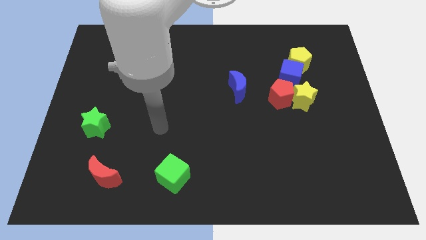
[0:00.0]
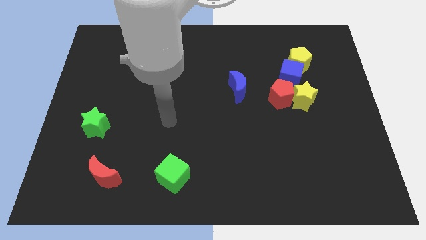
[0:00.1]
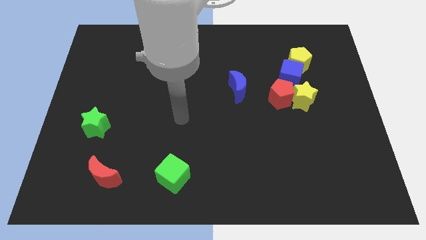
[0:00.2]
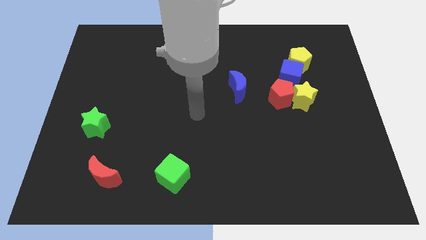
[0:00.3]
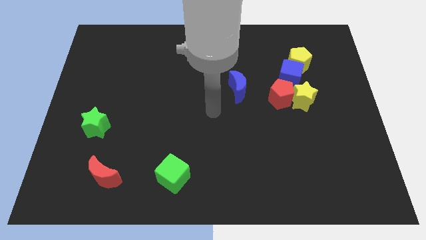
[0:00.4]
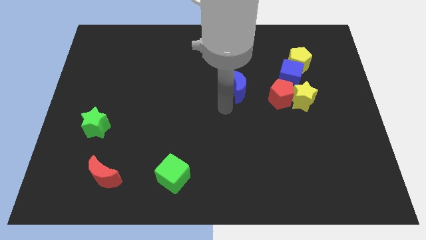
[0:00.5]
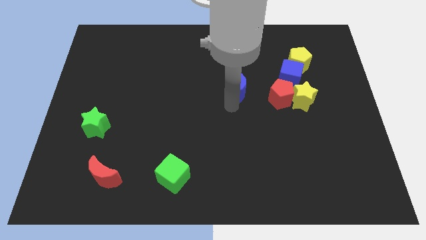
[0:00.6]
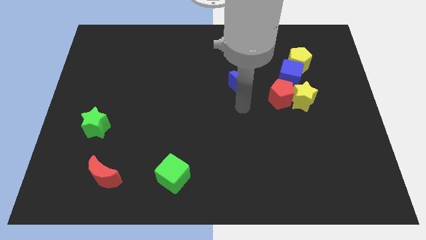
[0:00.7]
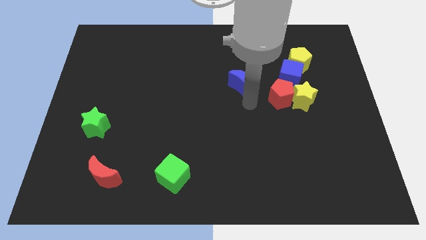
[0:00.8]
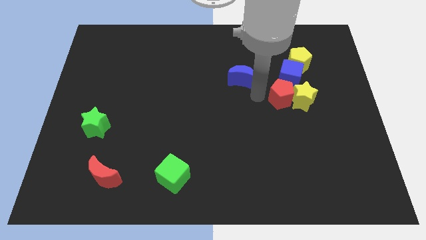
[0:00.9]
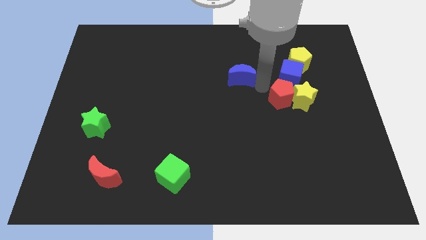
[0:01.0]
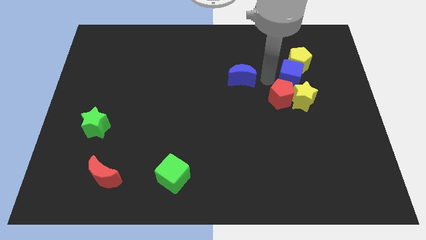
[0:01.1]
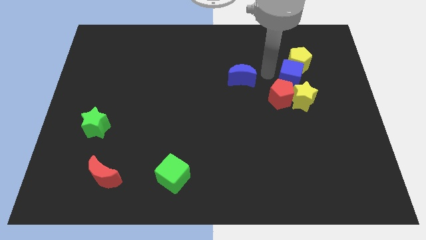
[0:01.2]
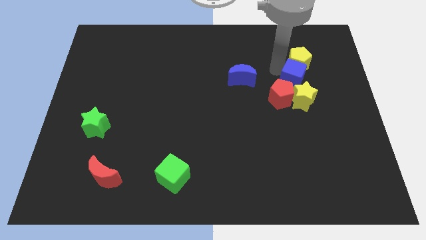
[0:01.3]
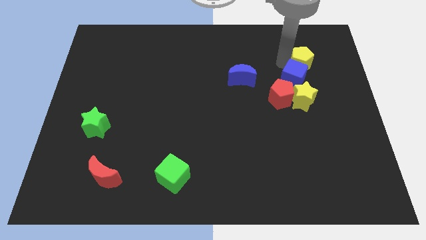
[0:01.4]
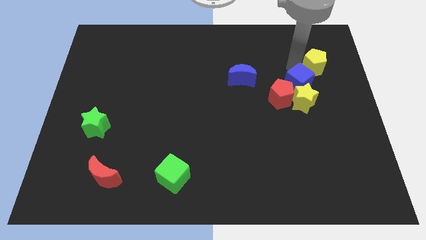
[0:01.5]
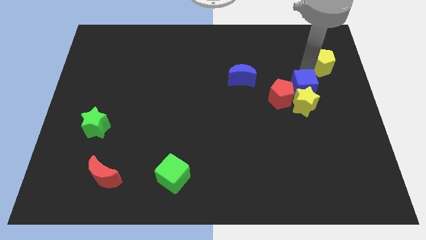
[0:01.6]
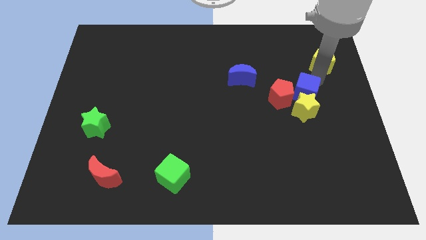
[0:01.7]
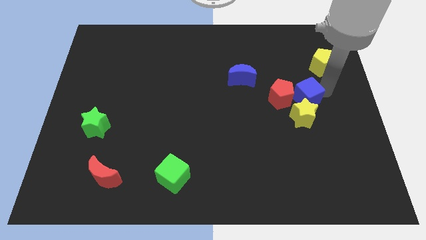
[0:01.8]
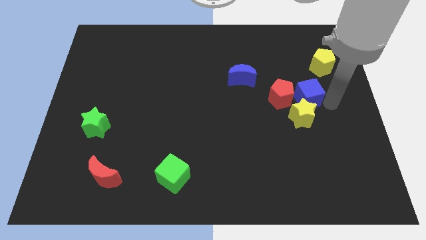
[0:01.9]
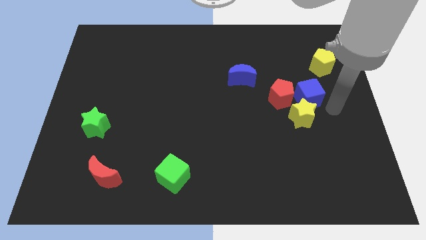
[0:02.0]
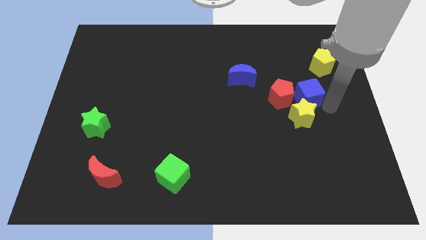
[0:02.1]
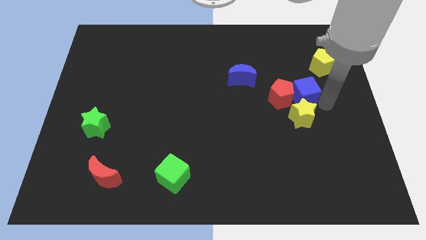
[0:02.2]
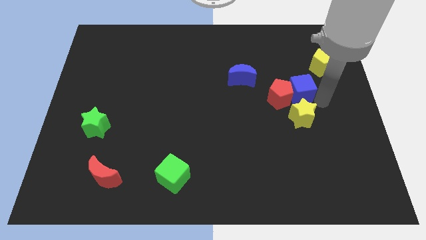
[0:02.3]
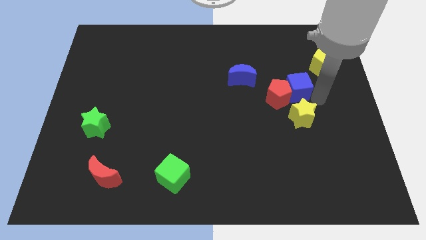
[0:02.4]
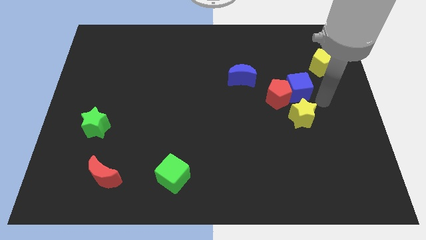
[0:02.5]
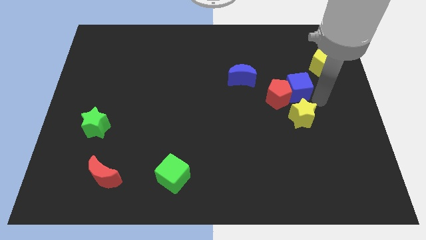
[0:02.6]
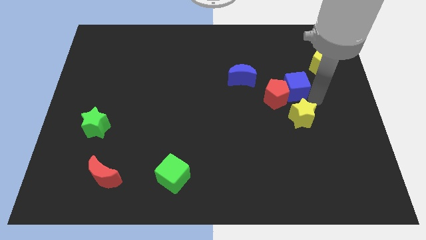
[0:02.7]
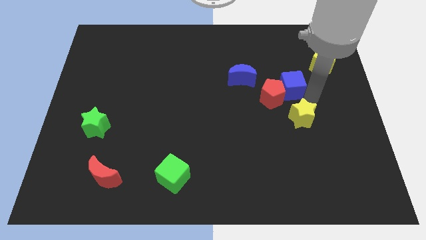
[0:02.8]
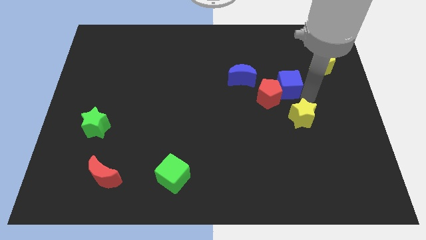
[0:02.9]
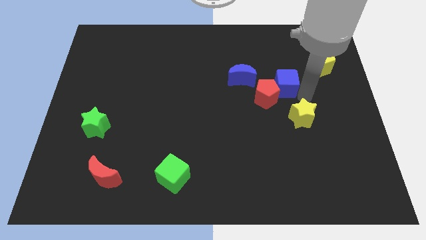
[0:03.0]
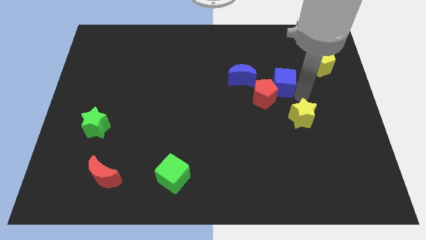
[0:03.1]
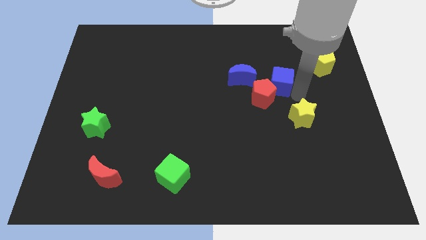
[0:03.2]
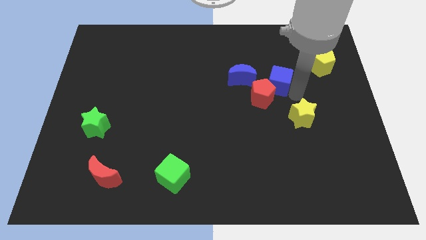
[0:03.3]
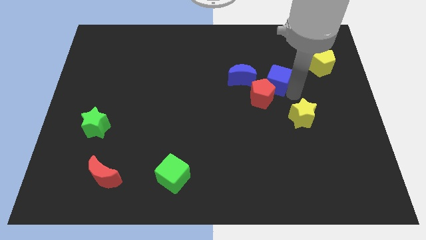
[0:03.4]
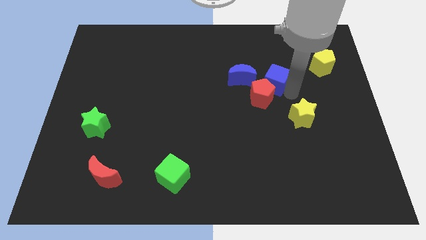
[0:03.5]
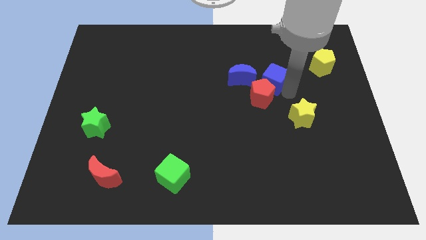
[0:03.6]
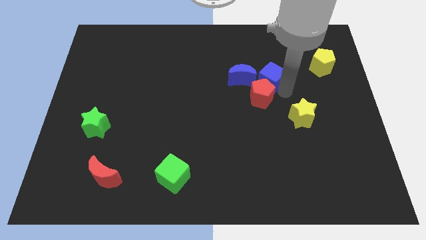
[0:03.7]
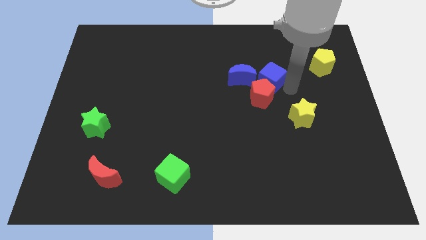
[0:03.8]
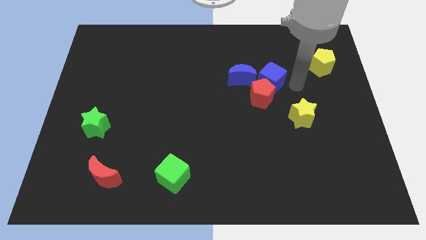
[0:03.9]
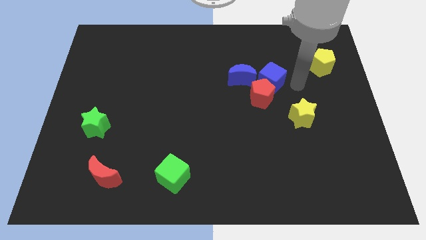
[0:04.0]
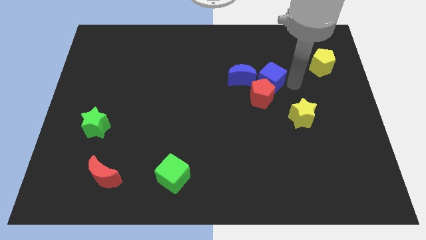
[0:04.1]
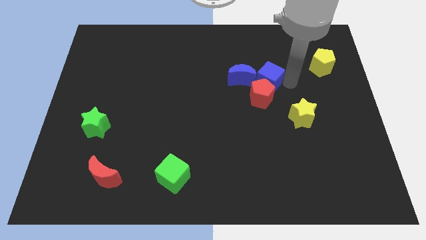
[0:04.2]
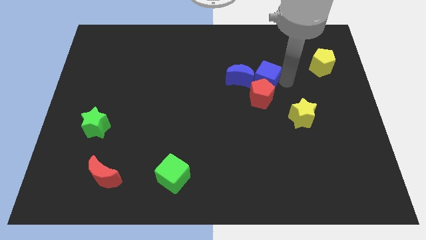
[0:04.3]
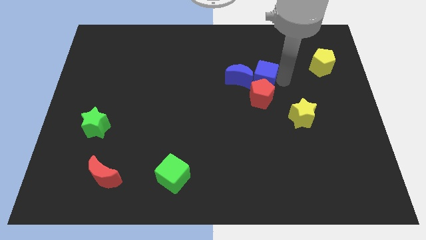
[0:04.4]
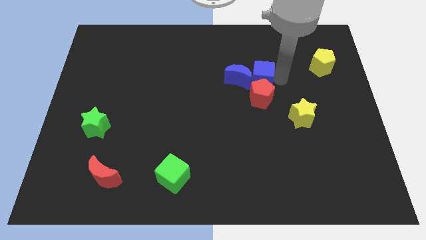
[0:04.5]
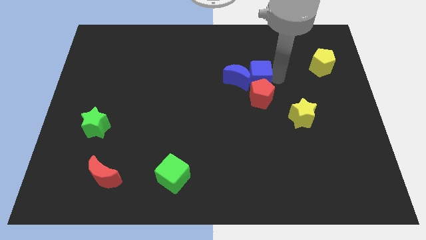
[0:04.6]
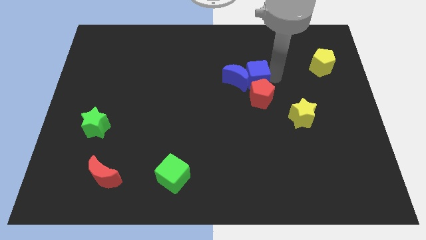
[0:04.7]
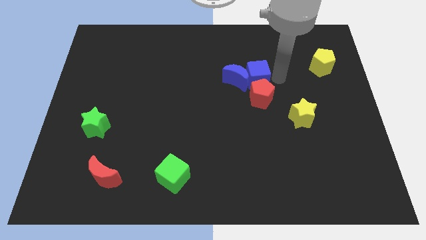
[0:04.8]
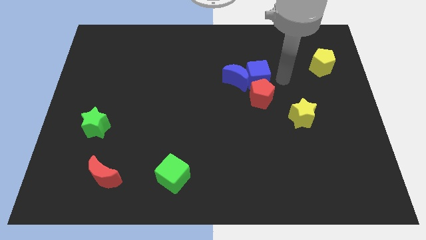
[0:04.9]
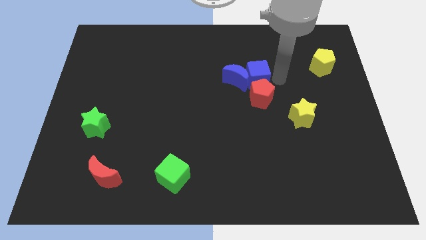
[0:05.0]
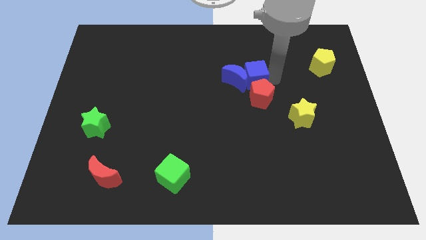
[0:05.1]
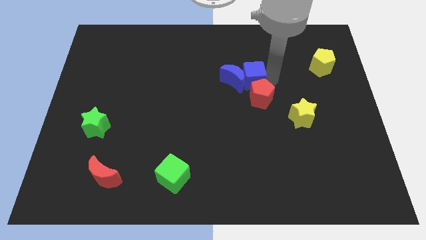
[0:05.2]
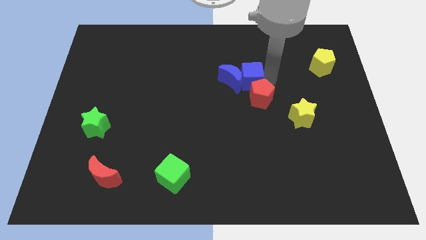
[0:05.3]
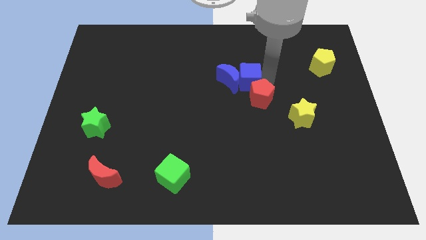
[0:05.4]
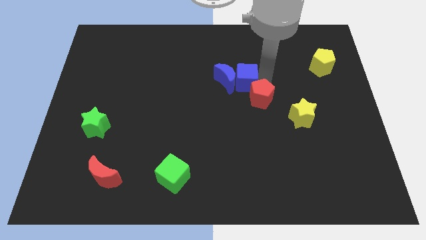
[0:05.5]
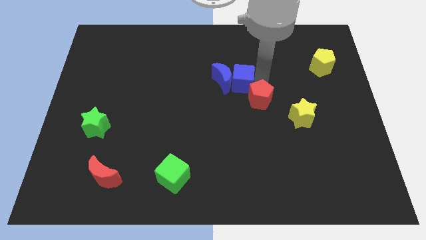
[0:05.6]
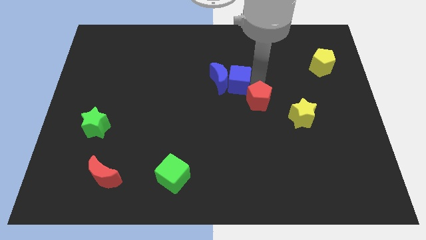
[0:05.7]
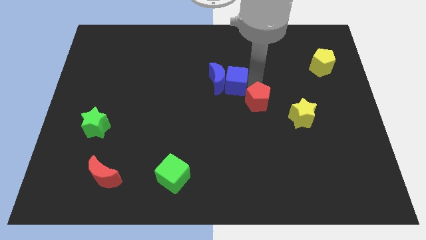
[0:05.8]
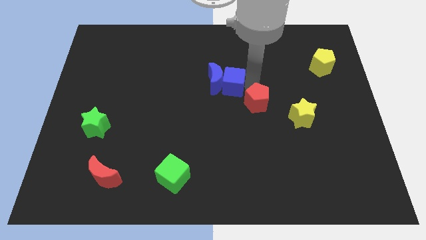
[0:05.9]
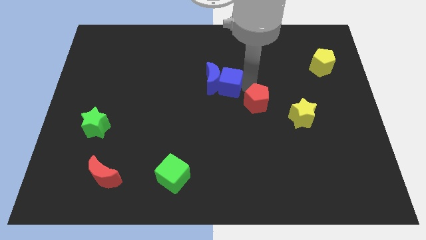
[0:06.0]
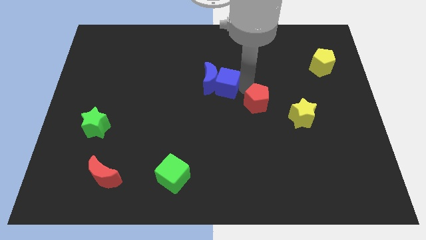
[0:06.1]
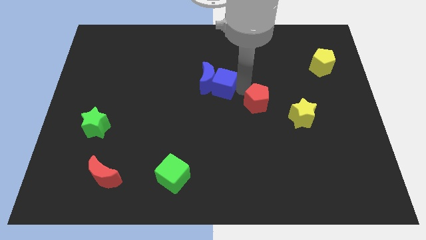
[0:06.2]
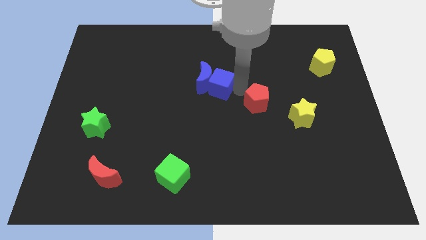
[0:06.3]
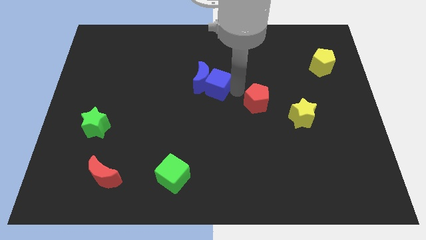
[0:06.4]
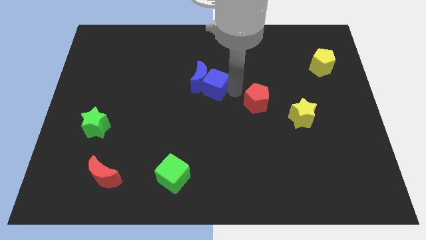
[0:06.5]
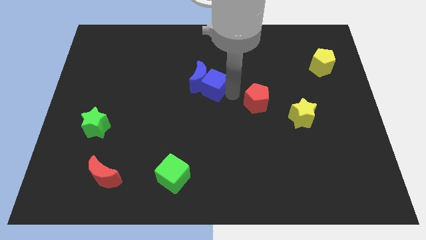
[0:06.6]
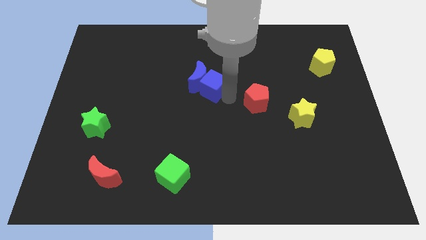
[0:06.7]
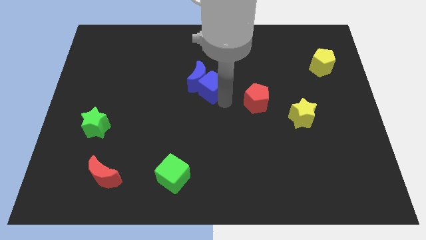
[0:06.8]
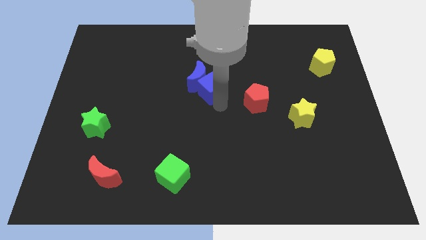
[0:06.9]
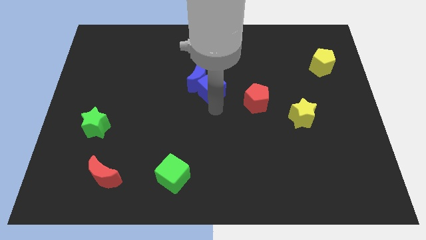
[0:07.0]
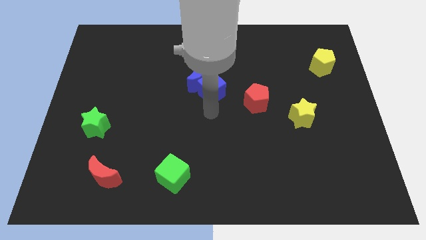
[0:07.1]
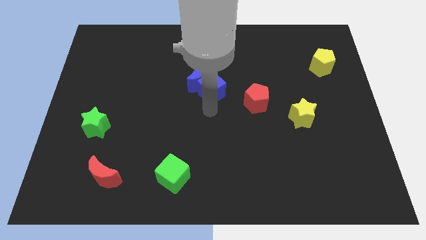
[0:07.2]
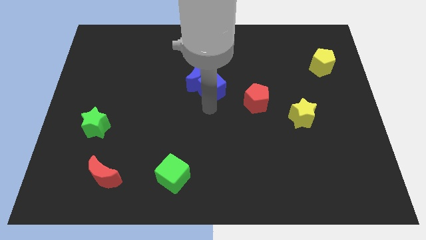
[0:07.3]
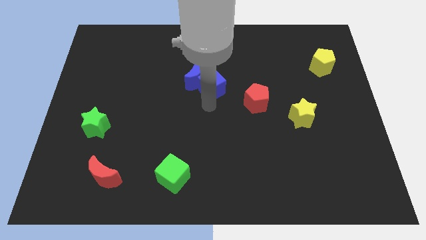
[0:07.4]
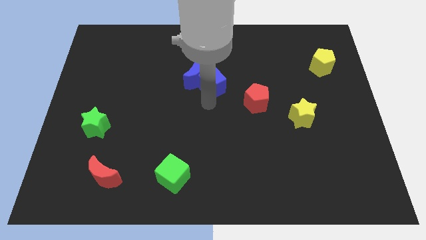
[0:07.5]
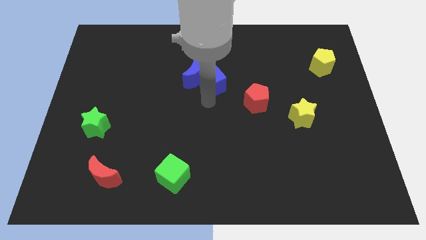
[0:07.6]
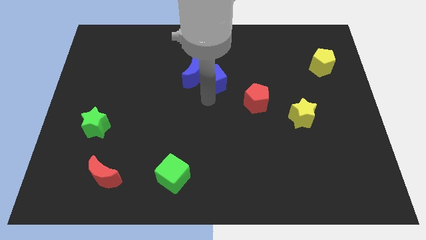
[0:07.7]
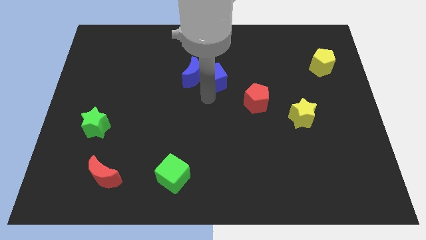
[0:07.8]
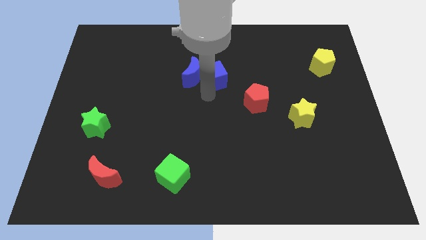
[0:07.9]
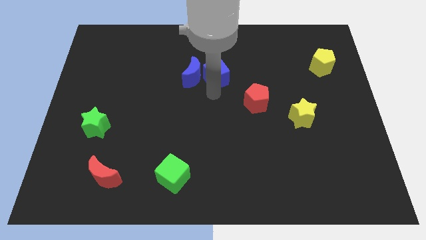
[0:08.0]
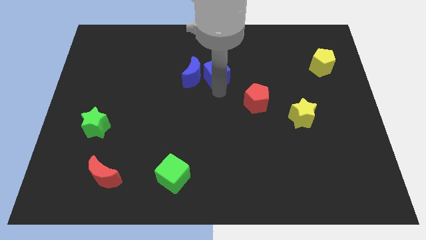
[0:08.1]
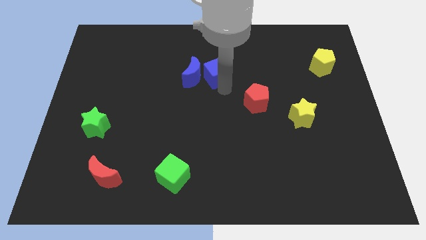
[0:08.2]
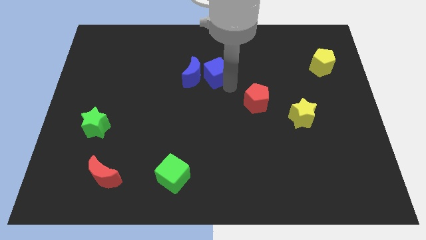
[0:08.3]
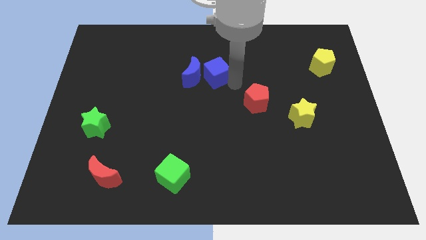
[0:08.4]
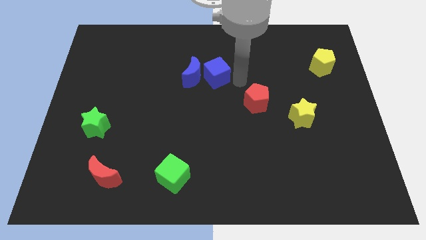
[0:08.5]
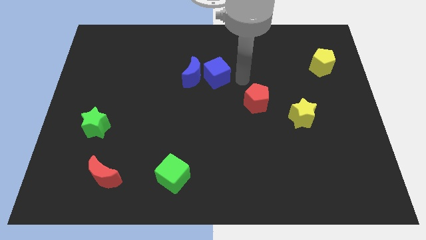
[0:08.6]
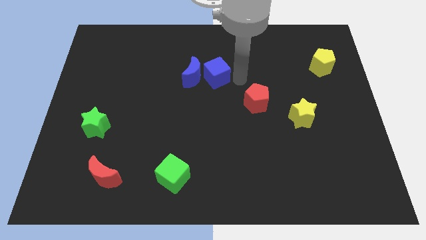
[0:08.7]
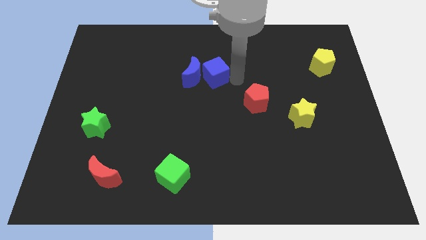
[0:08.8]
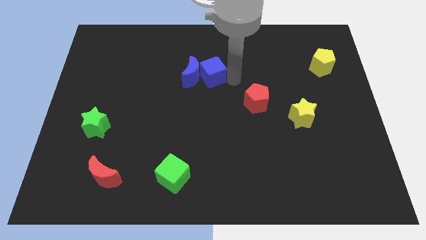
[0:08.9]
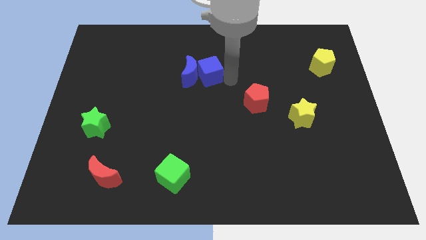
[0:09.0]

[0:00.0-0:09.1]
push the blue cube left
